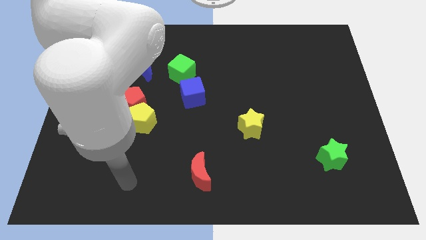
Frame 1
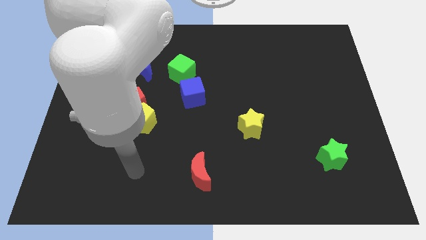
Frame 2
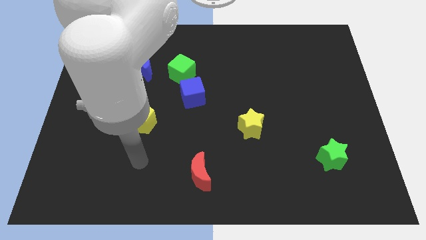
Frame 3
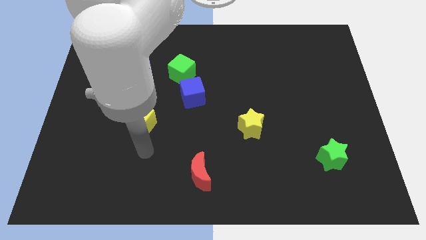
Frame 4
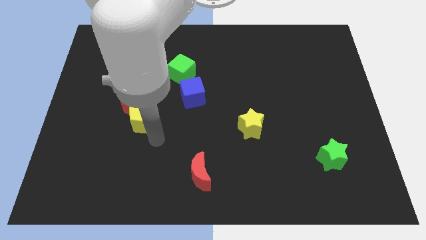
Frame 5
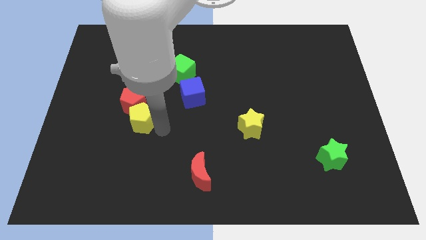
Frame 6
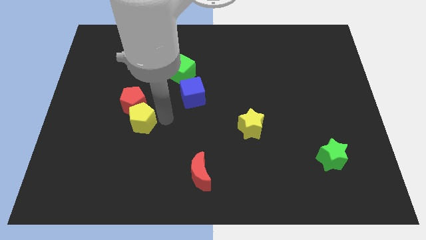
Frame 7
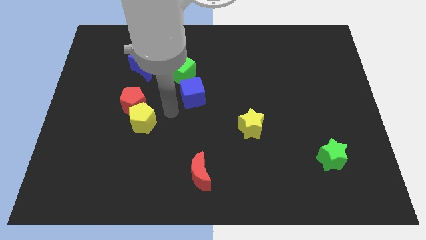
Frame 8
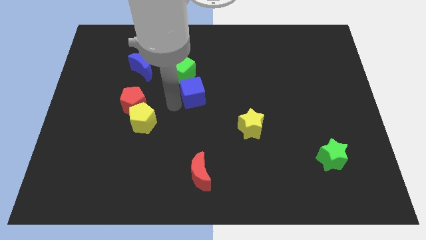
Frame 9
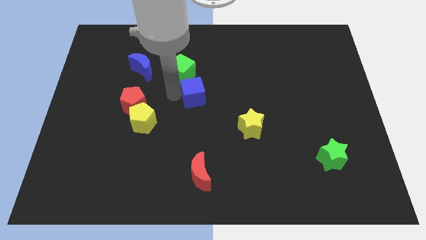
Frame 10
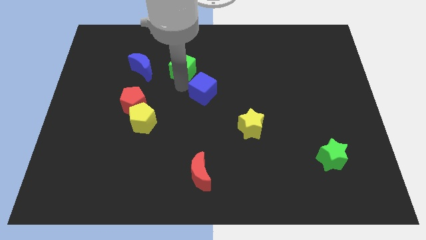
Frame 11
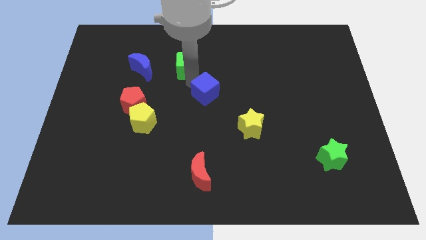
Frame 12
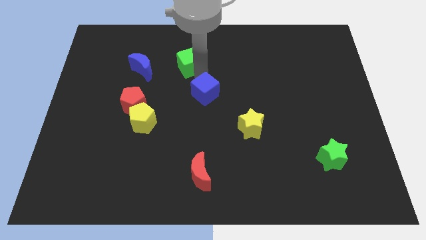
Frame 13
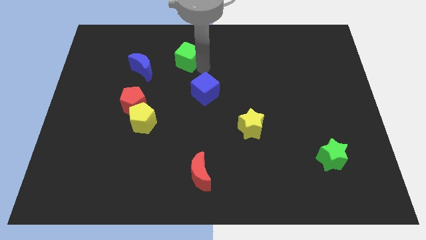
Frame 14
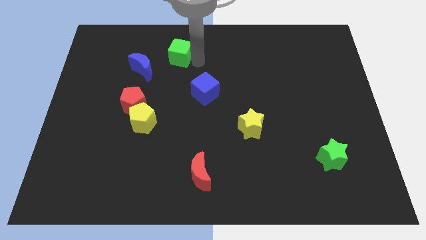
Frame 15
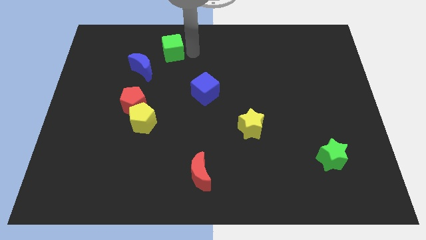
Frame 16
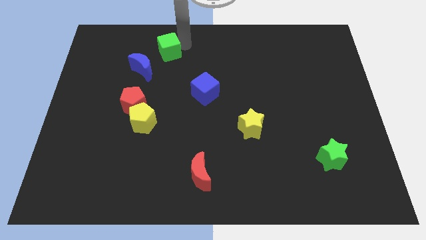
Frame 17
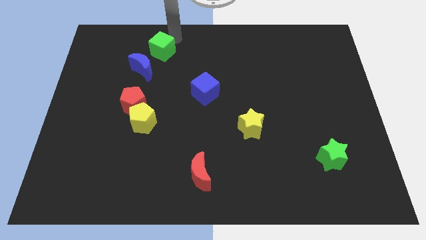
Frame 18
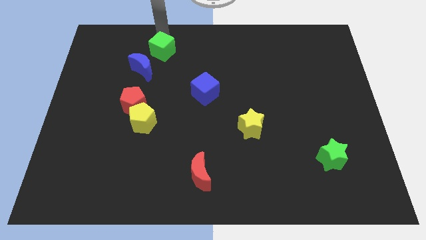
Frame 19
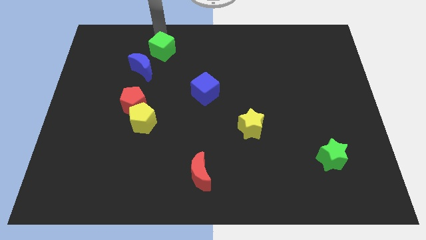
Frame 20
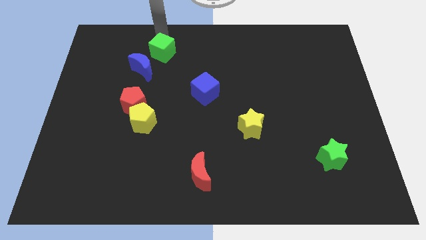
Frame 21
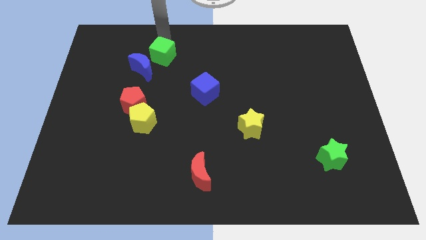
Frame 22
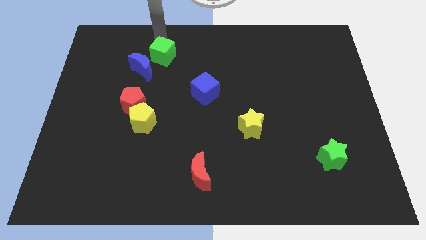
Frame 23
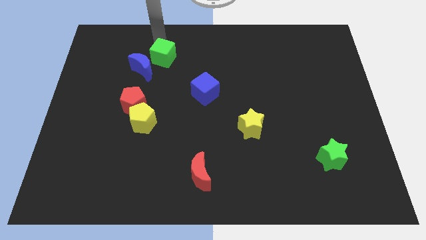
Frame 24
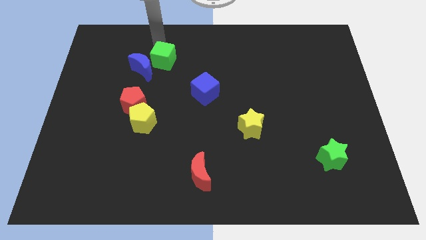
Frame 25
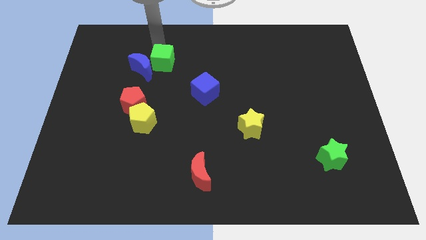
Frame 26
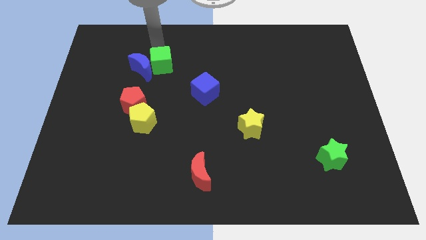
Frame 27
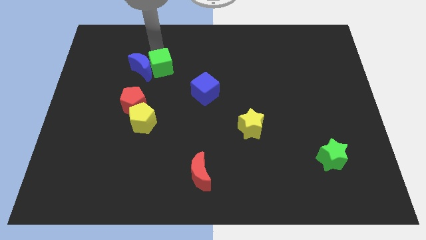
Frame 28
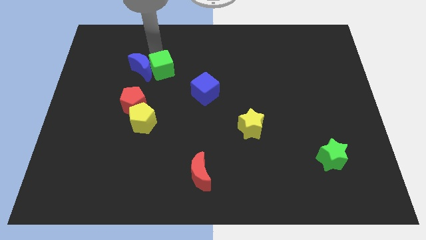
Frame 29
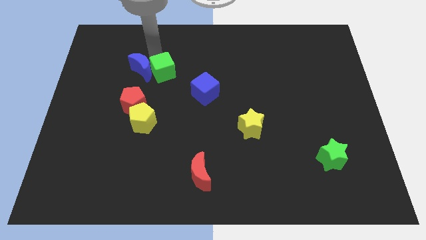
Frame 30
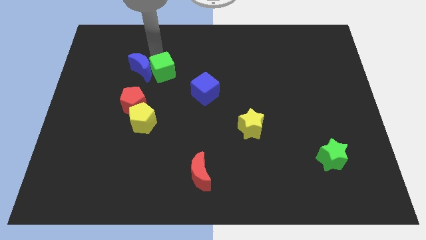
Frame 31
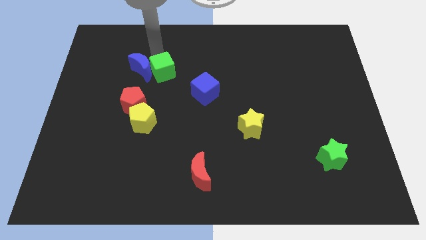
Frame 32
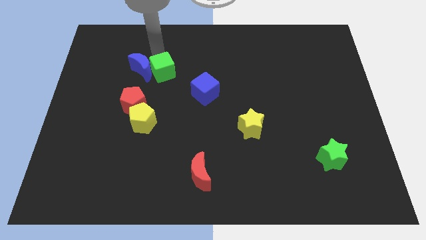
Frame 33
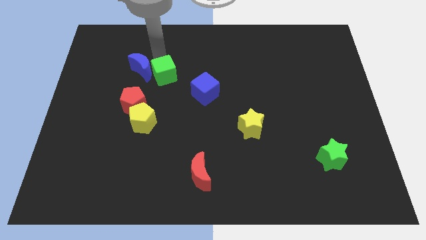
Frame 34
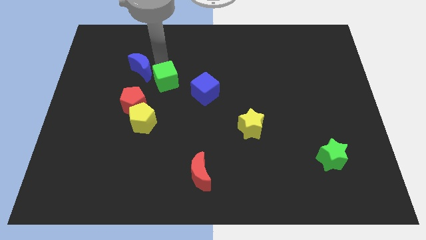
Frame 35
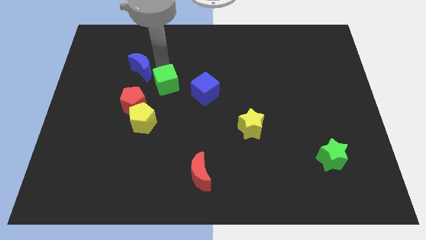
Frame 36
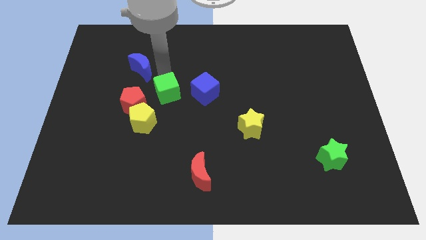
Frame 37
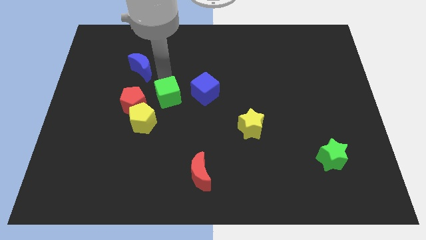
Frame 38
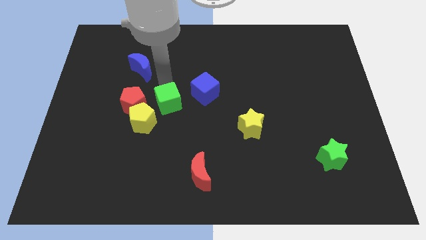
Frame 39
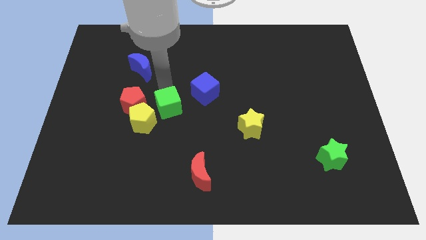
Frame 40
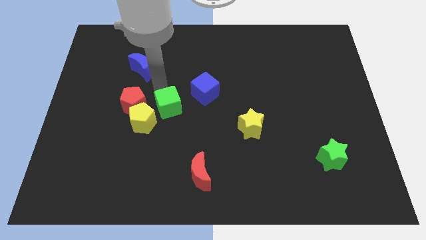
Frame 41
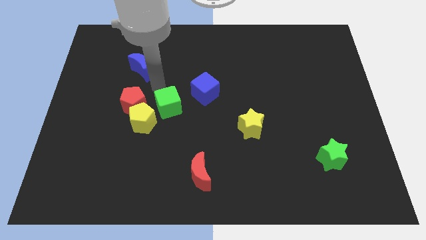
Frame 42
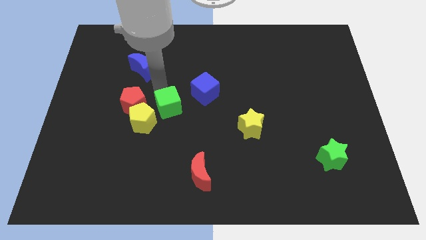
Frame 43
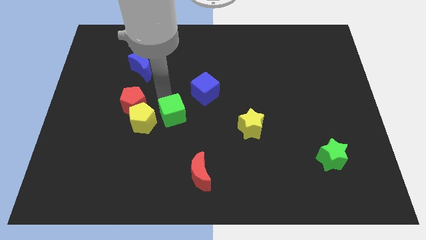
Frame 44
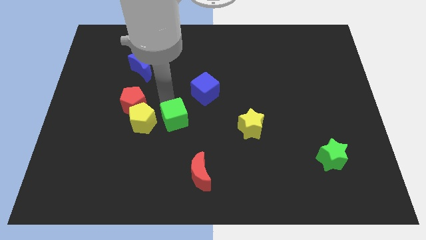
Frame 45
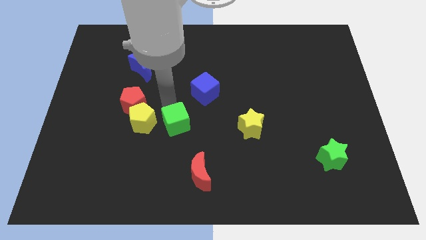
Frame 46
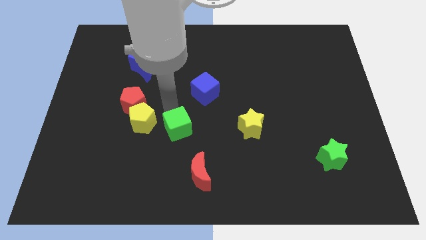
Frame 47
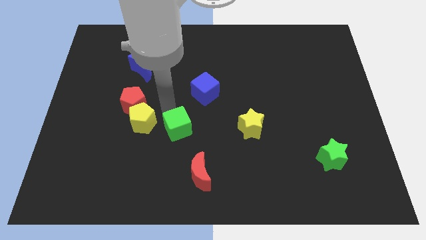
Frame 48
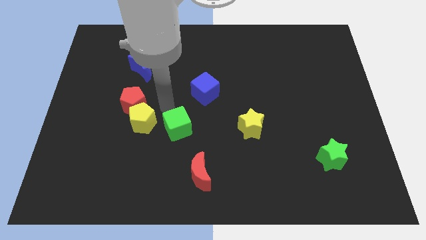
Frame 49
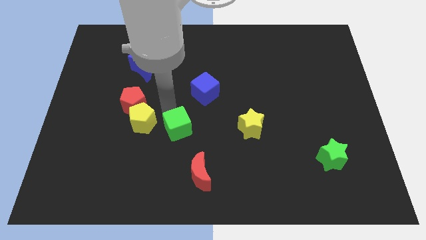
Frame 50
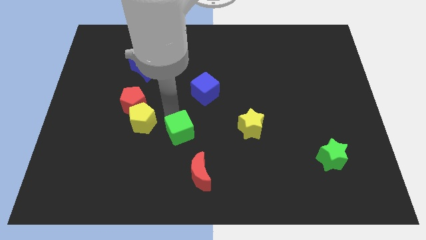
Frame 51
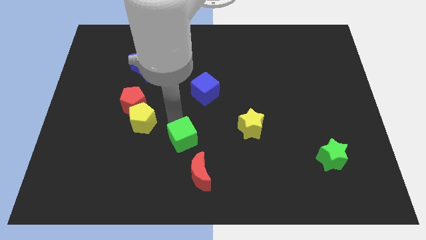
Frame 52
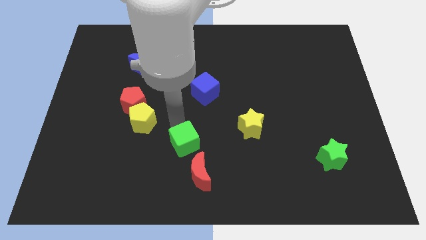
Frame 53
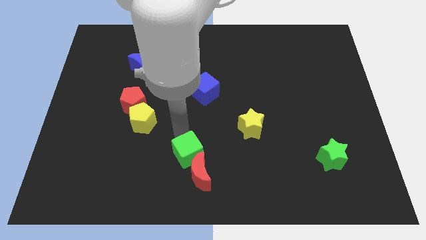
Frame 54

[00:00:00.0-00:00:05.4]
slide the green cube towards the red moon

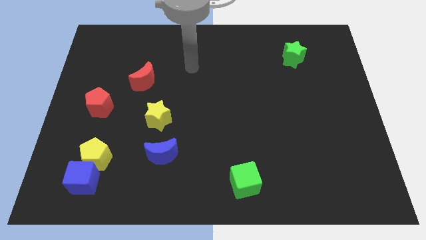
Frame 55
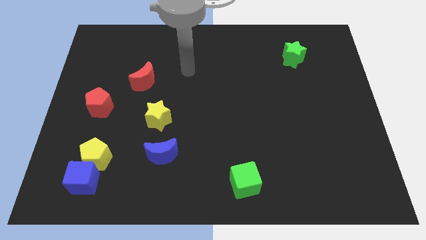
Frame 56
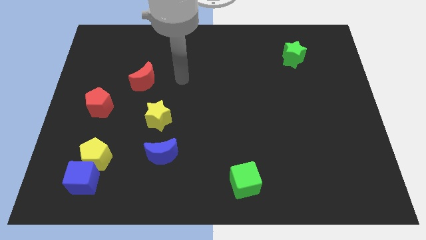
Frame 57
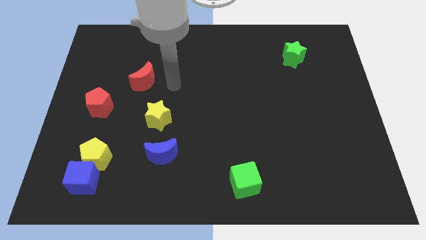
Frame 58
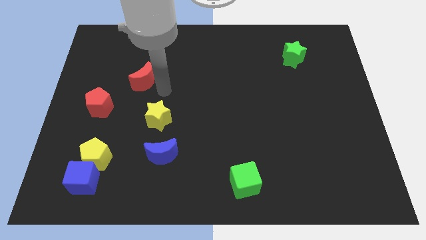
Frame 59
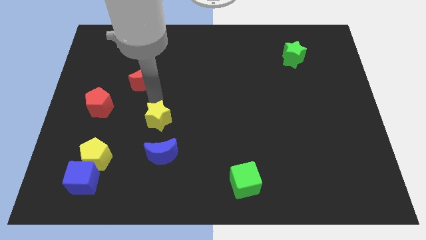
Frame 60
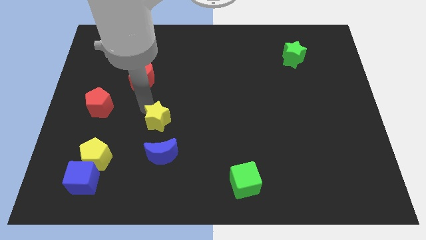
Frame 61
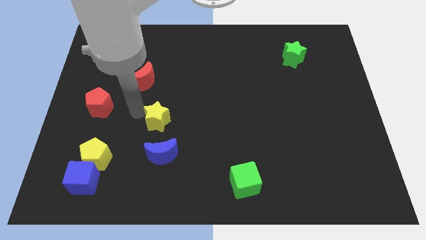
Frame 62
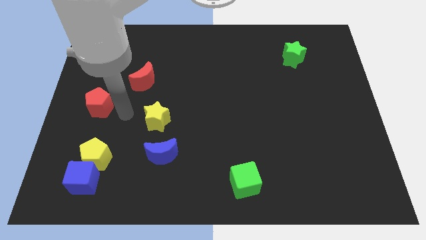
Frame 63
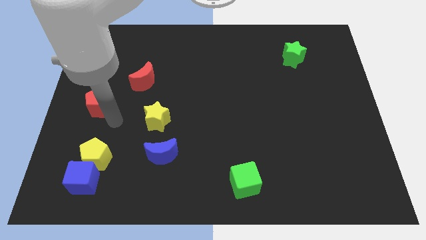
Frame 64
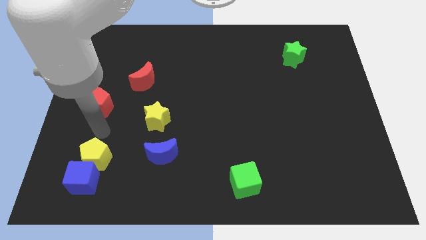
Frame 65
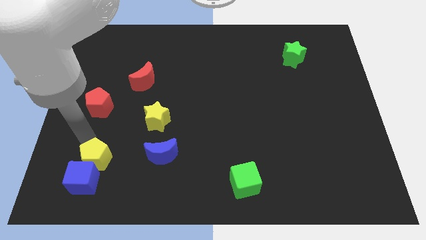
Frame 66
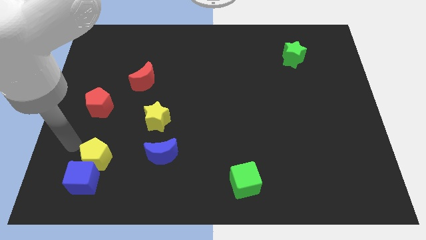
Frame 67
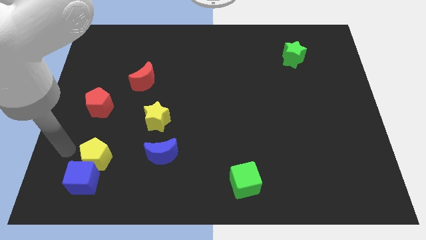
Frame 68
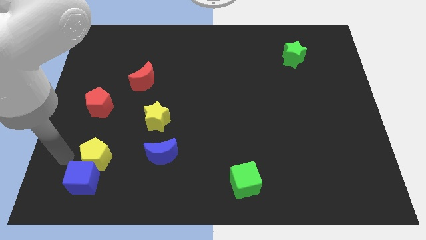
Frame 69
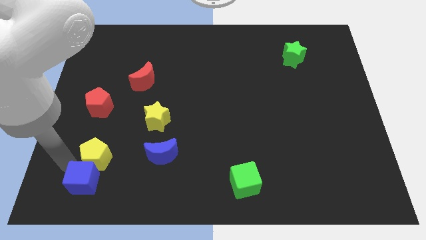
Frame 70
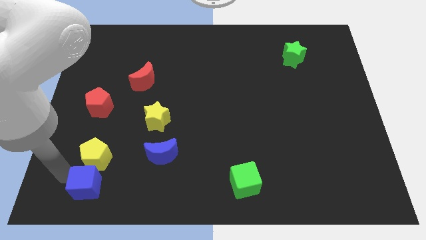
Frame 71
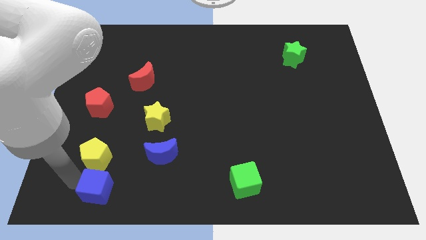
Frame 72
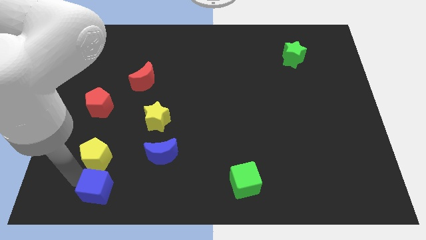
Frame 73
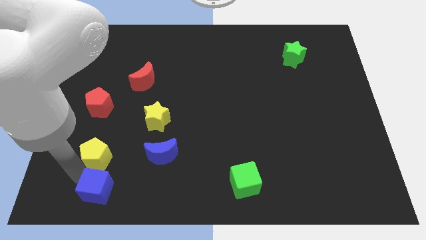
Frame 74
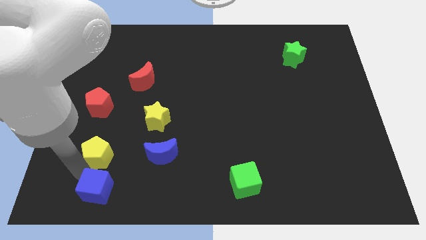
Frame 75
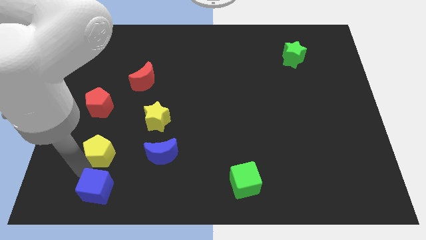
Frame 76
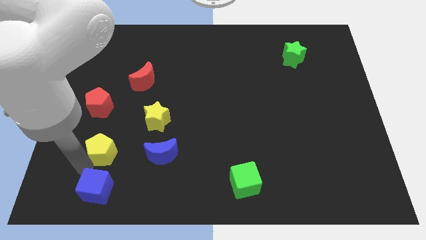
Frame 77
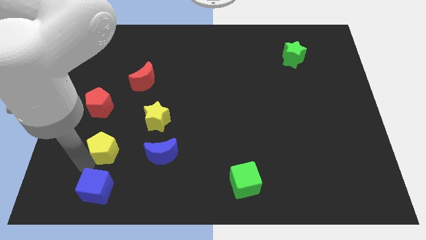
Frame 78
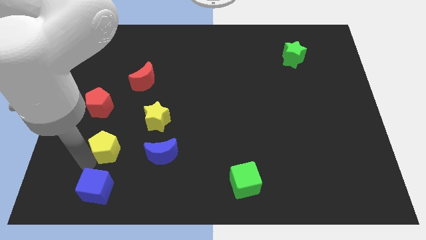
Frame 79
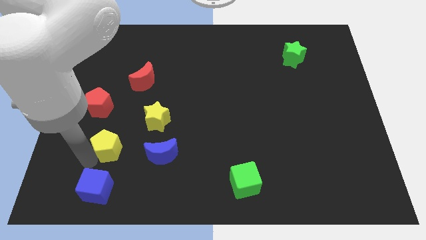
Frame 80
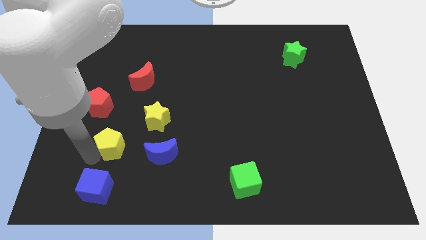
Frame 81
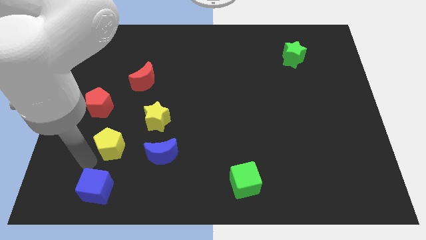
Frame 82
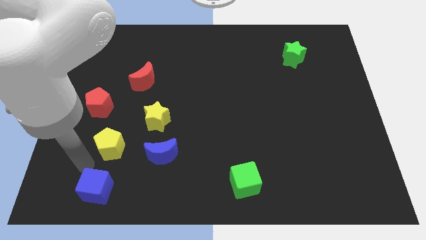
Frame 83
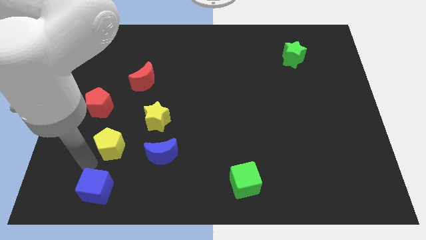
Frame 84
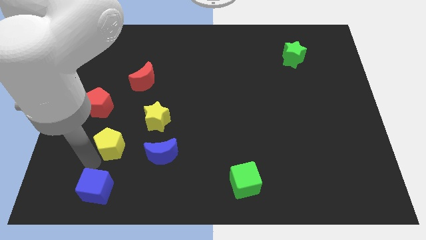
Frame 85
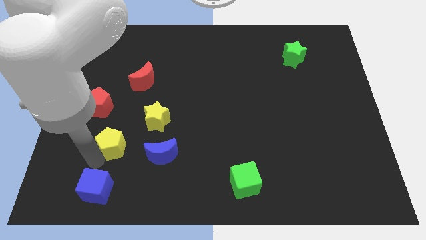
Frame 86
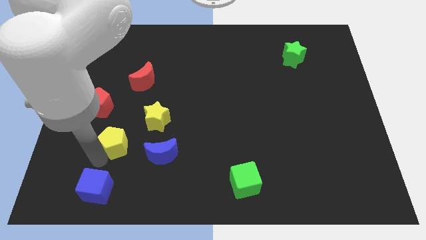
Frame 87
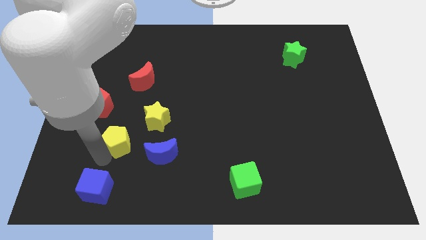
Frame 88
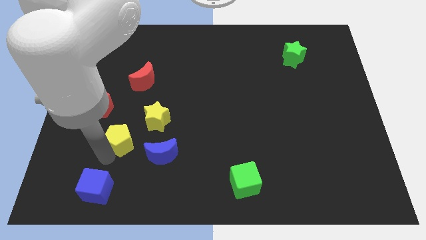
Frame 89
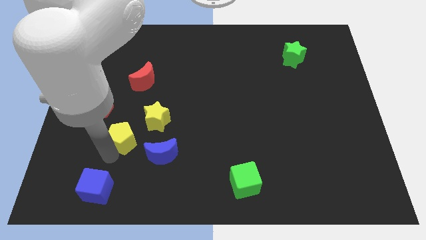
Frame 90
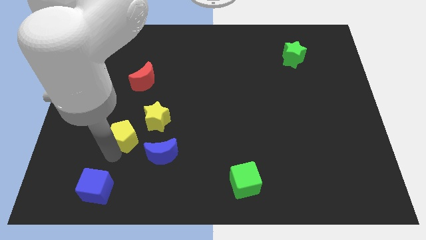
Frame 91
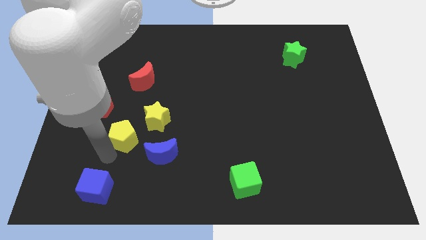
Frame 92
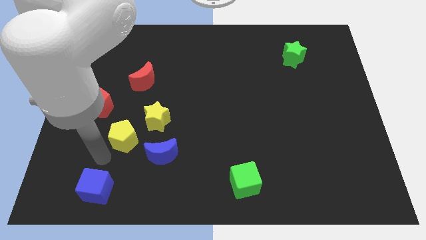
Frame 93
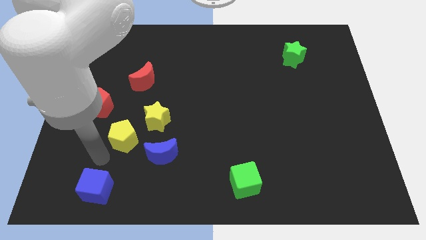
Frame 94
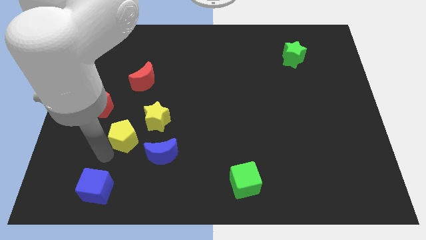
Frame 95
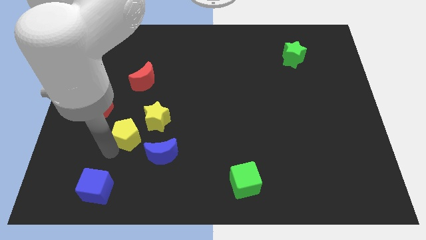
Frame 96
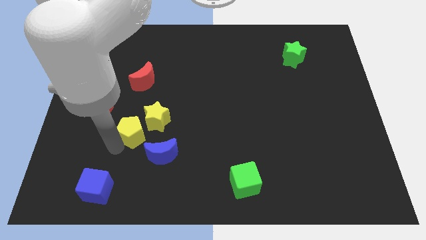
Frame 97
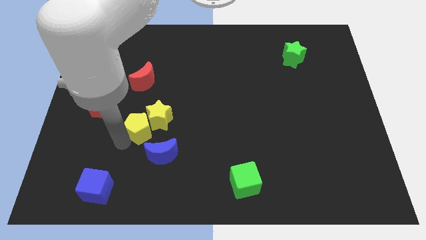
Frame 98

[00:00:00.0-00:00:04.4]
put the yellow pentagon to the yellow star
